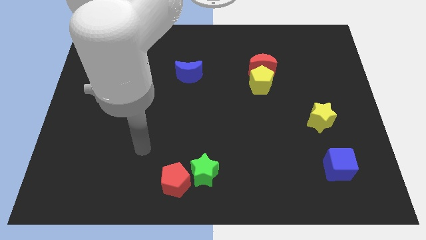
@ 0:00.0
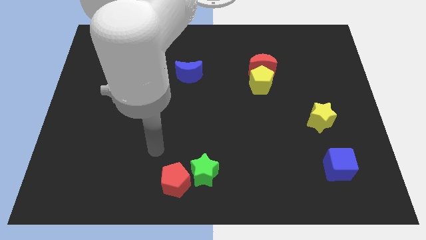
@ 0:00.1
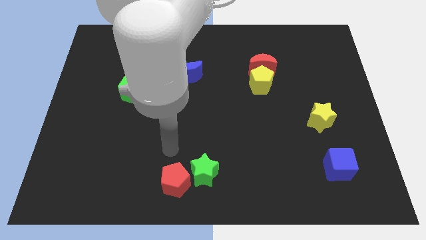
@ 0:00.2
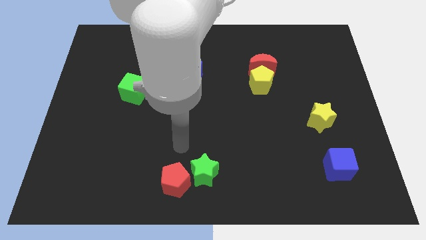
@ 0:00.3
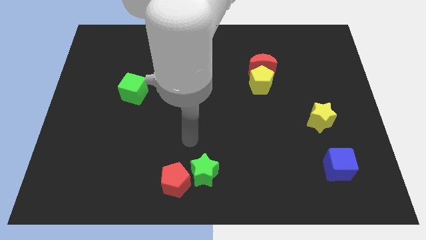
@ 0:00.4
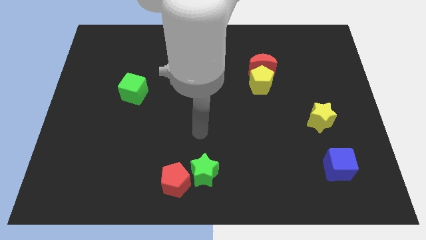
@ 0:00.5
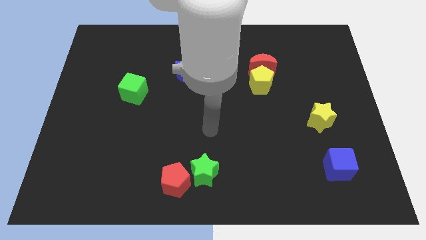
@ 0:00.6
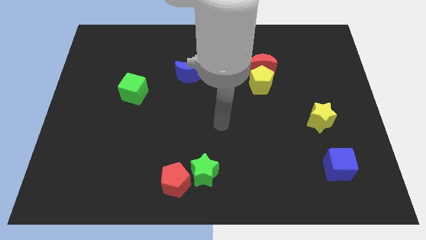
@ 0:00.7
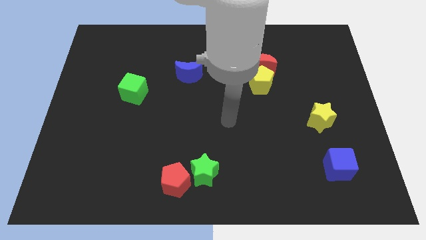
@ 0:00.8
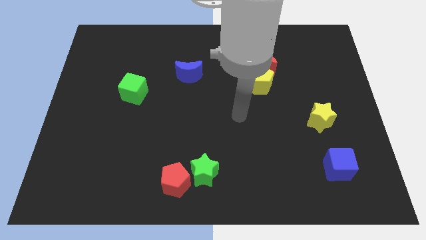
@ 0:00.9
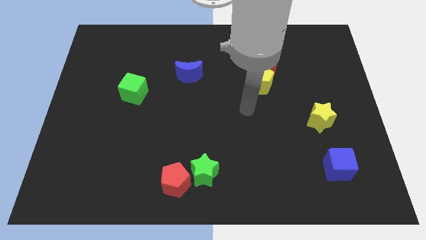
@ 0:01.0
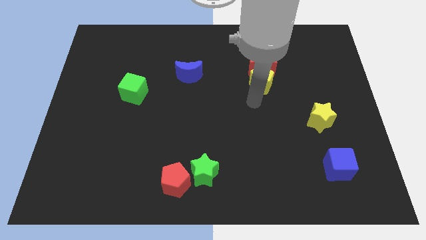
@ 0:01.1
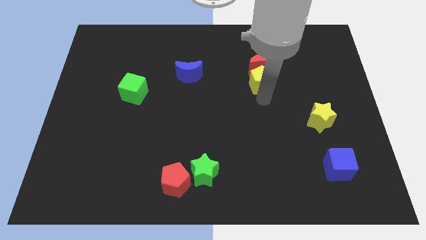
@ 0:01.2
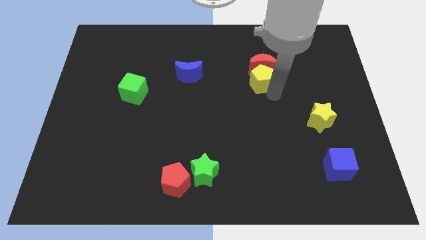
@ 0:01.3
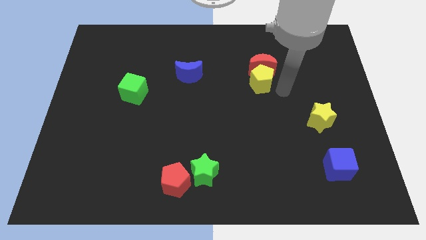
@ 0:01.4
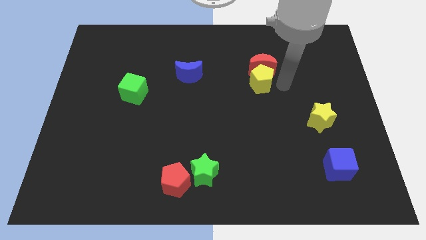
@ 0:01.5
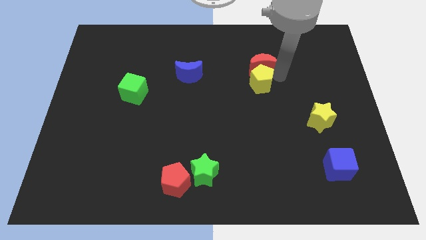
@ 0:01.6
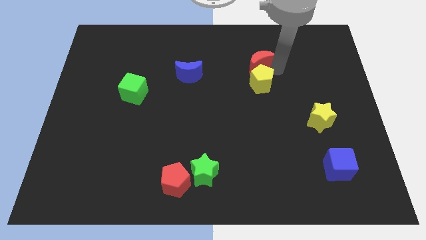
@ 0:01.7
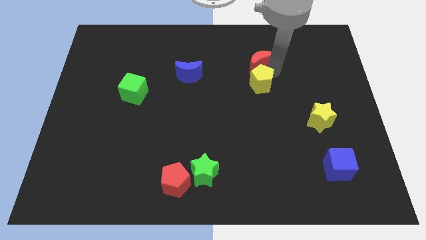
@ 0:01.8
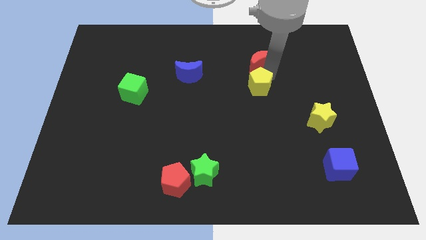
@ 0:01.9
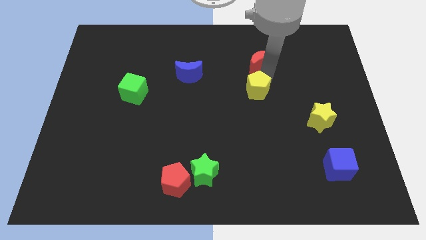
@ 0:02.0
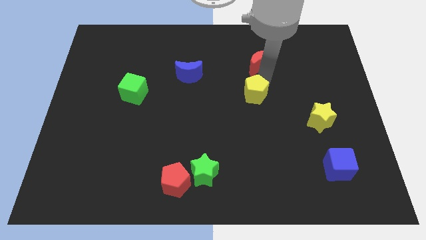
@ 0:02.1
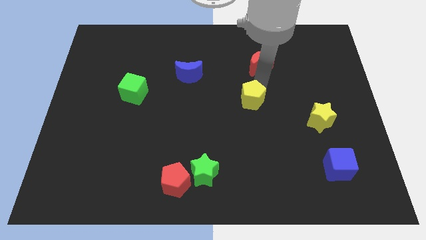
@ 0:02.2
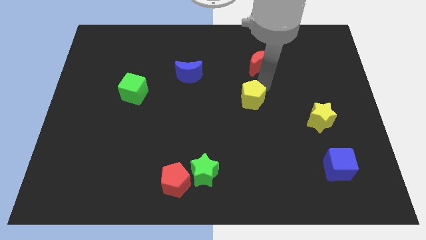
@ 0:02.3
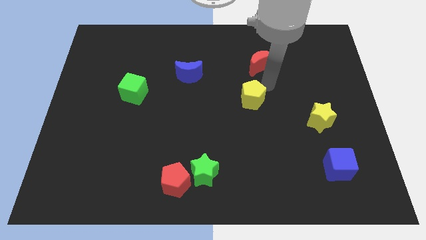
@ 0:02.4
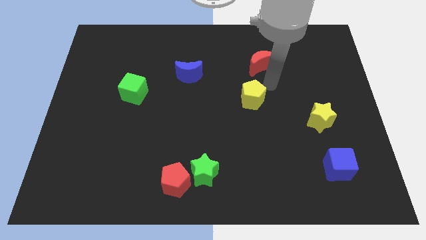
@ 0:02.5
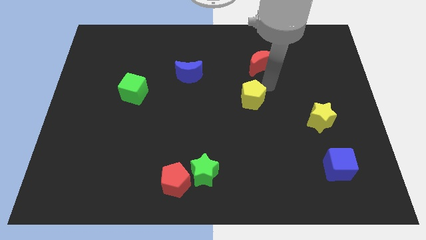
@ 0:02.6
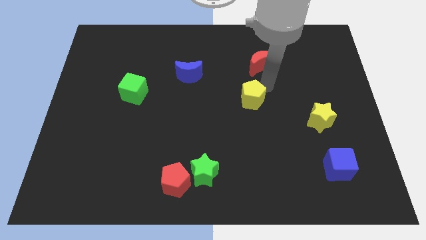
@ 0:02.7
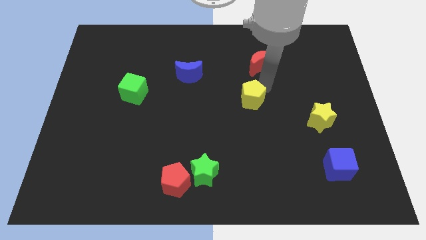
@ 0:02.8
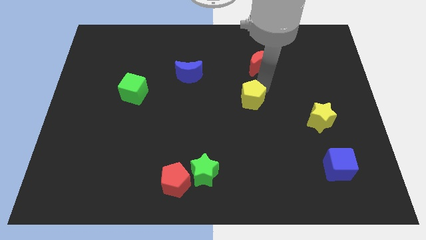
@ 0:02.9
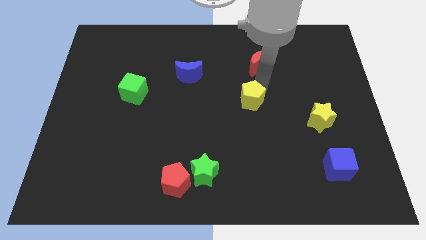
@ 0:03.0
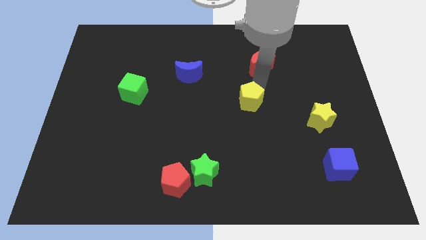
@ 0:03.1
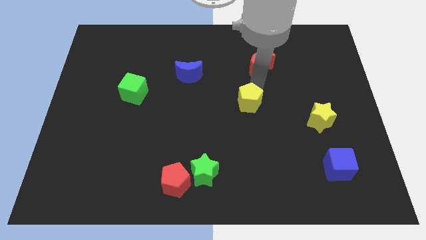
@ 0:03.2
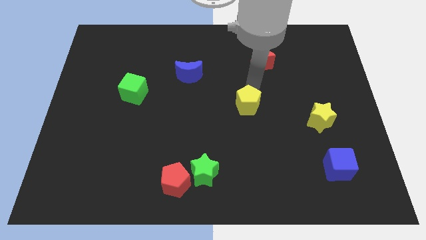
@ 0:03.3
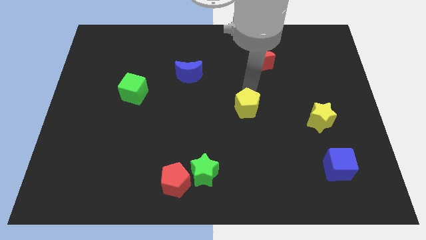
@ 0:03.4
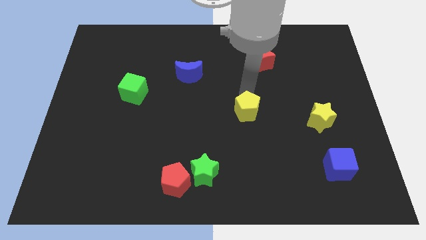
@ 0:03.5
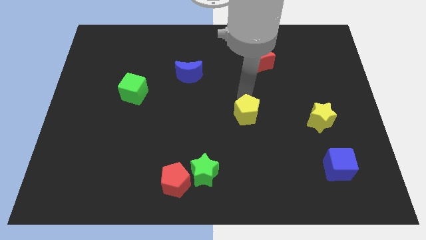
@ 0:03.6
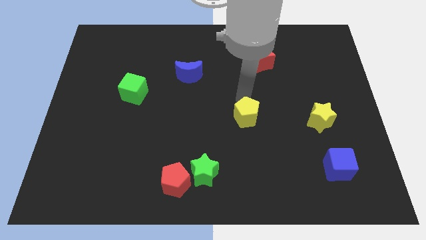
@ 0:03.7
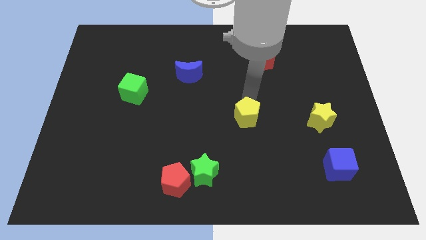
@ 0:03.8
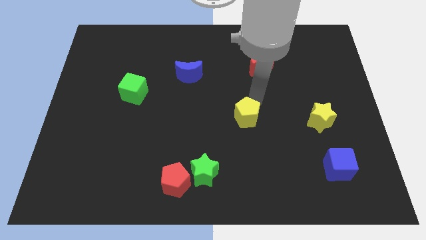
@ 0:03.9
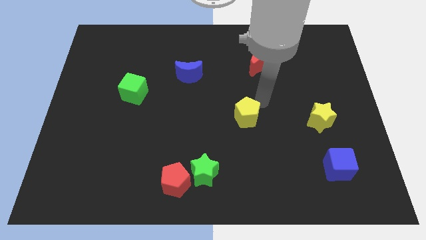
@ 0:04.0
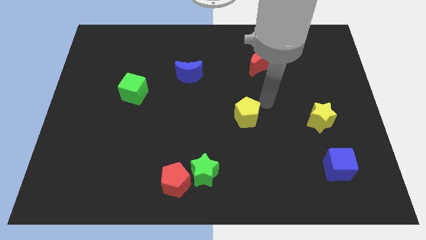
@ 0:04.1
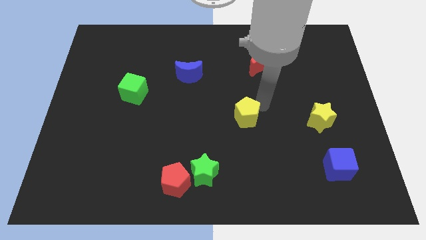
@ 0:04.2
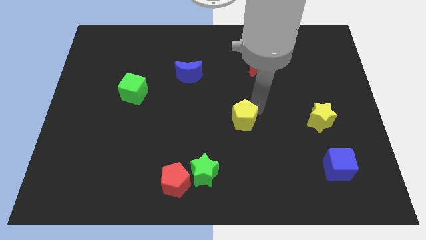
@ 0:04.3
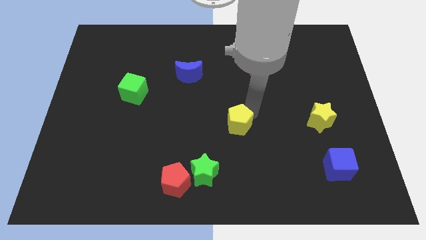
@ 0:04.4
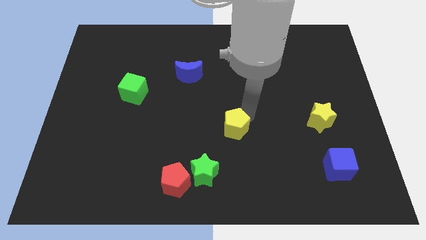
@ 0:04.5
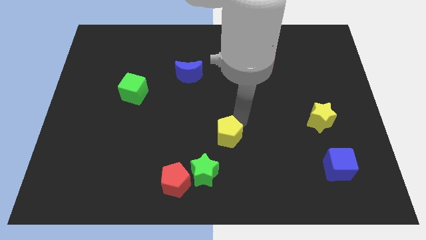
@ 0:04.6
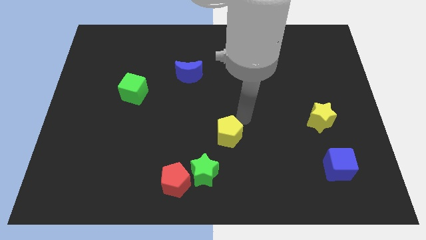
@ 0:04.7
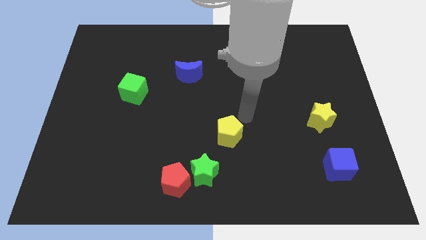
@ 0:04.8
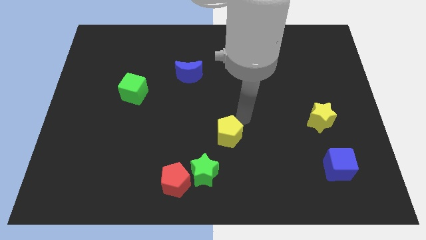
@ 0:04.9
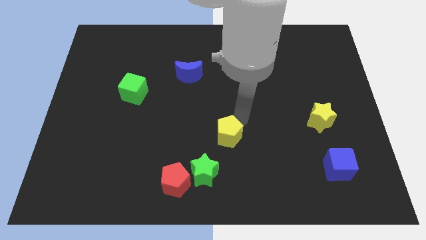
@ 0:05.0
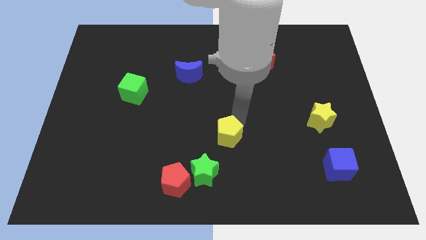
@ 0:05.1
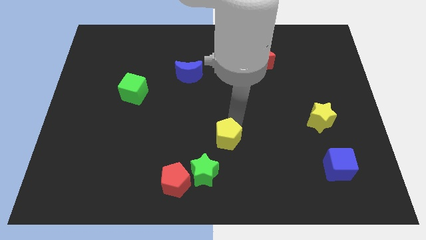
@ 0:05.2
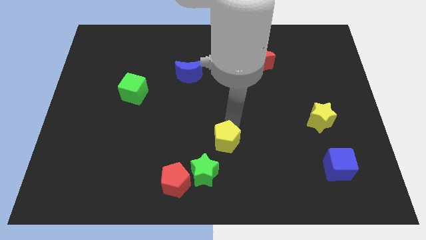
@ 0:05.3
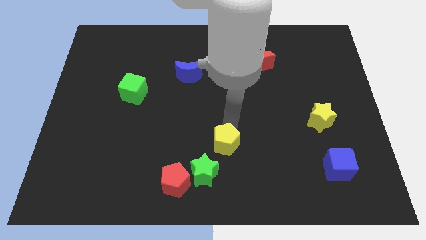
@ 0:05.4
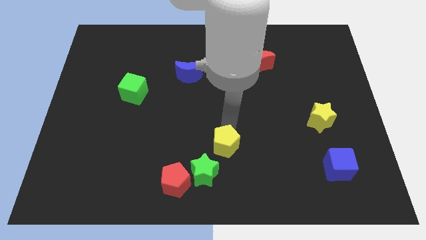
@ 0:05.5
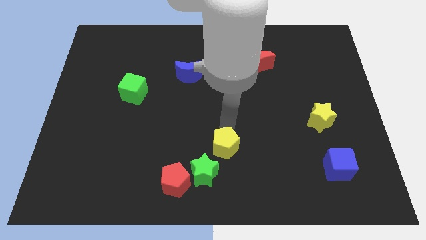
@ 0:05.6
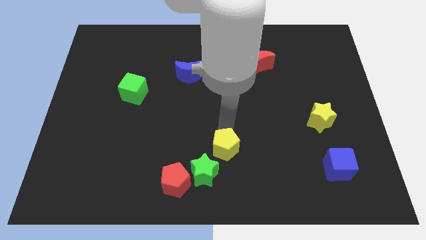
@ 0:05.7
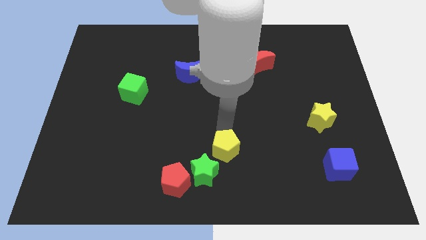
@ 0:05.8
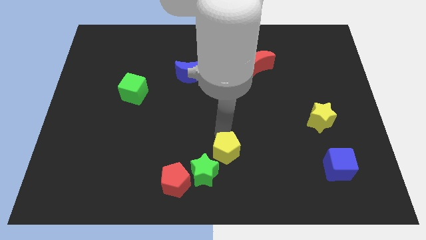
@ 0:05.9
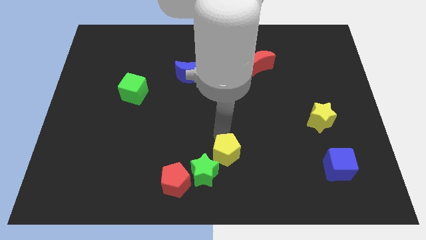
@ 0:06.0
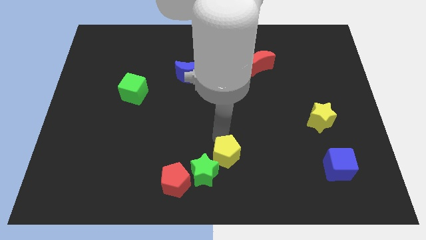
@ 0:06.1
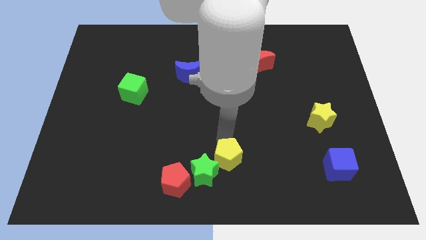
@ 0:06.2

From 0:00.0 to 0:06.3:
slide the yellow pentagon close to the green star

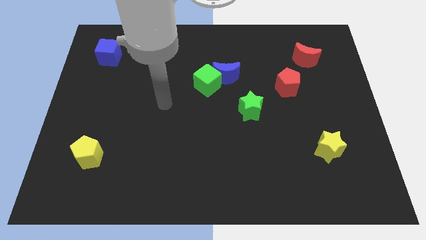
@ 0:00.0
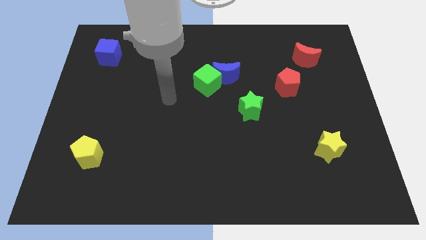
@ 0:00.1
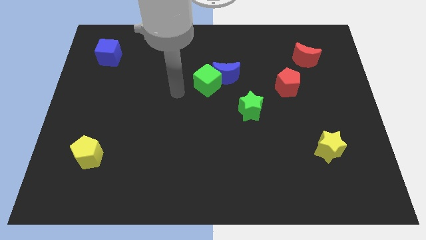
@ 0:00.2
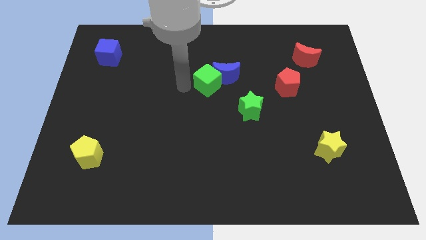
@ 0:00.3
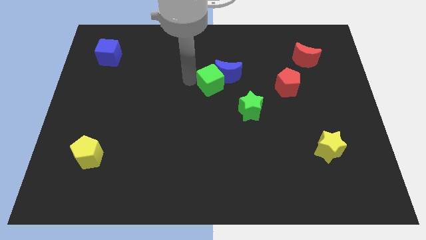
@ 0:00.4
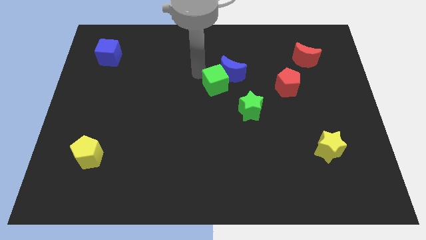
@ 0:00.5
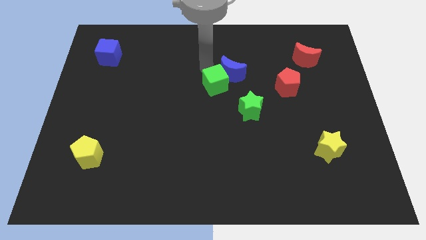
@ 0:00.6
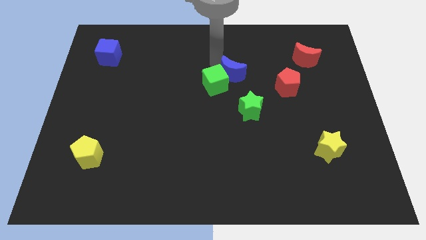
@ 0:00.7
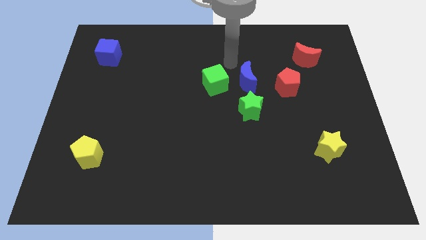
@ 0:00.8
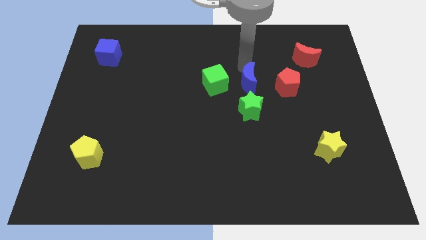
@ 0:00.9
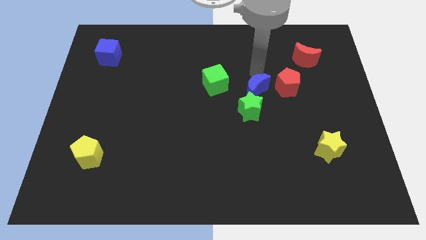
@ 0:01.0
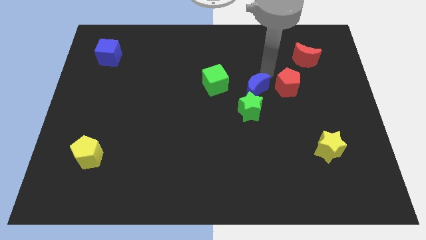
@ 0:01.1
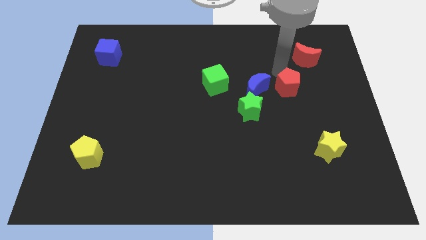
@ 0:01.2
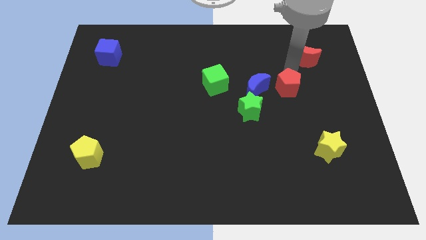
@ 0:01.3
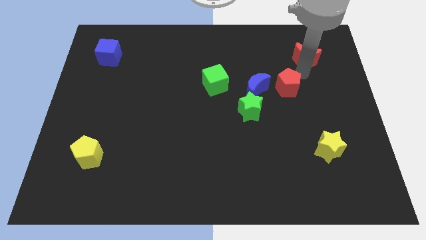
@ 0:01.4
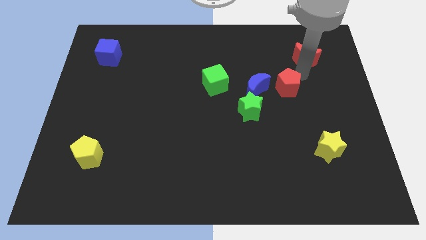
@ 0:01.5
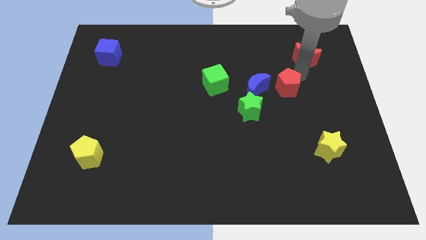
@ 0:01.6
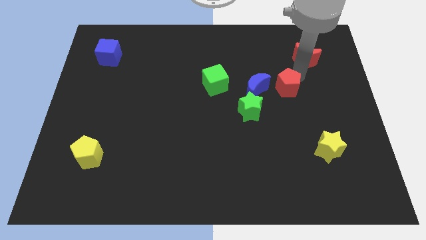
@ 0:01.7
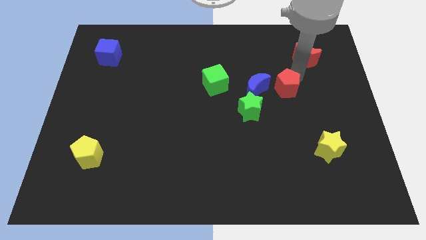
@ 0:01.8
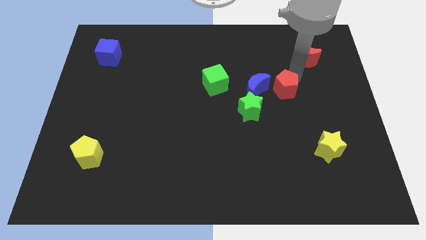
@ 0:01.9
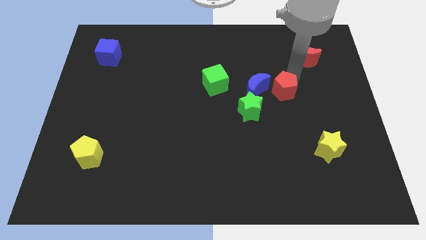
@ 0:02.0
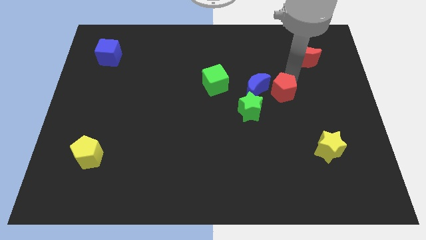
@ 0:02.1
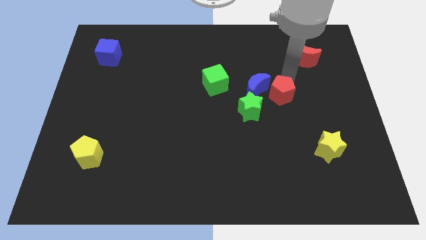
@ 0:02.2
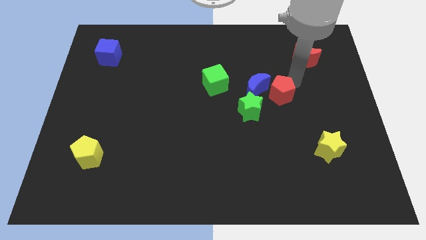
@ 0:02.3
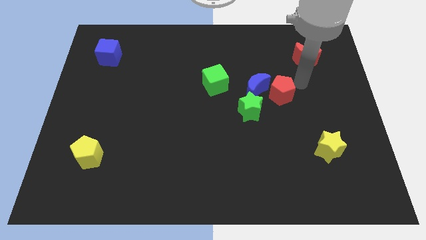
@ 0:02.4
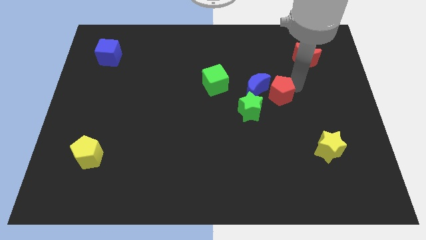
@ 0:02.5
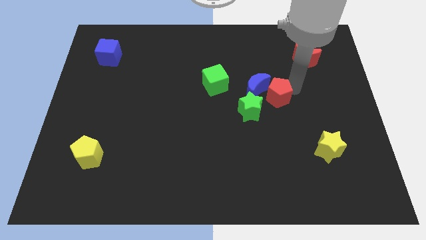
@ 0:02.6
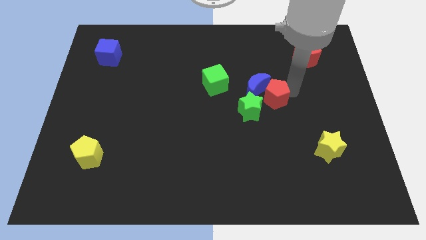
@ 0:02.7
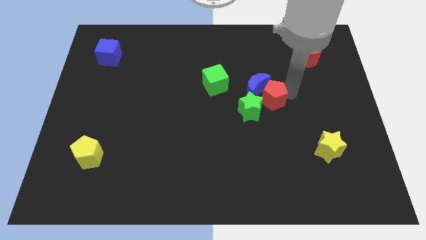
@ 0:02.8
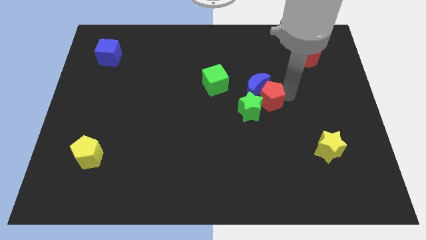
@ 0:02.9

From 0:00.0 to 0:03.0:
slide the red pentagon towards the green star
